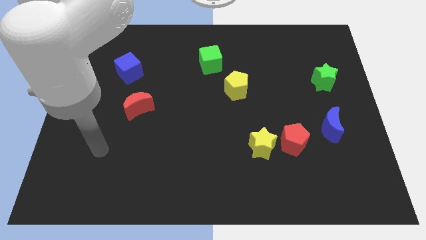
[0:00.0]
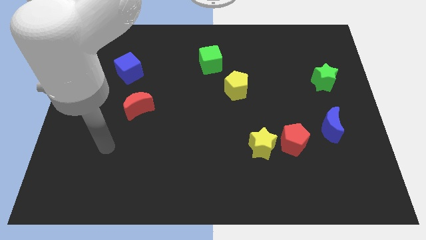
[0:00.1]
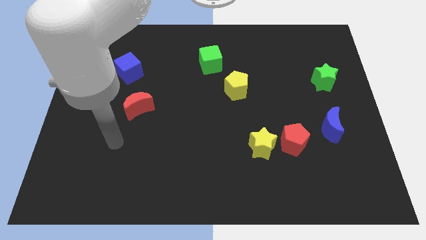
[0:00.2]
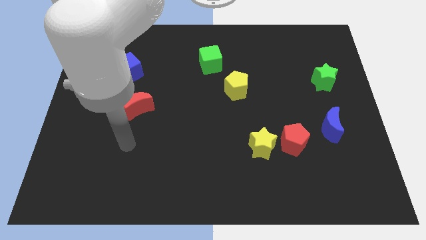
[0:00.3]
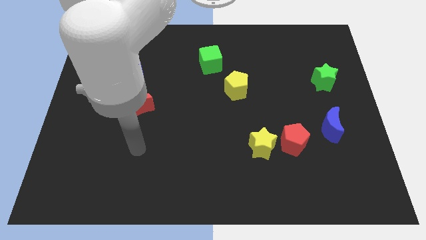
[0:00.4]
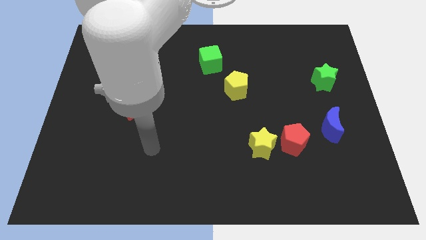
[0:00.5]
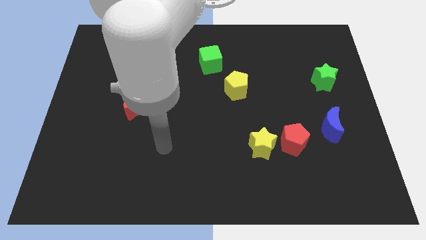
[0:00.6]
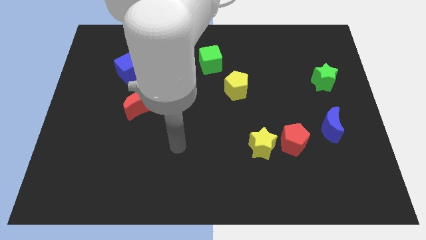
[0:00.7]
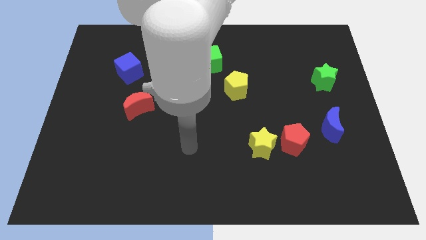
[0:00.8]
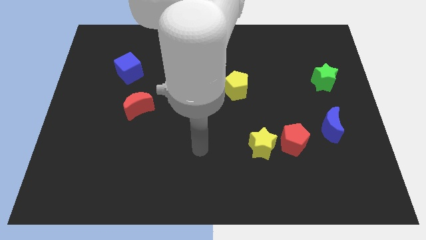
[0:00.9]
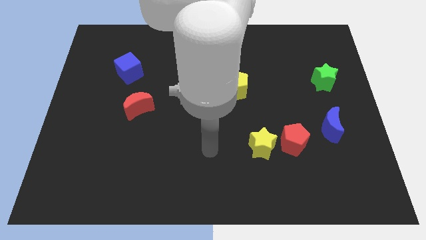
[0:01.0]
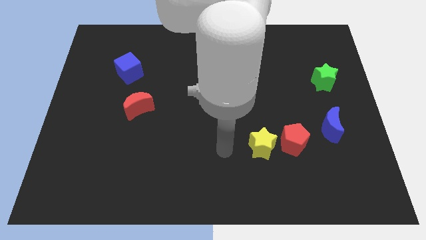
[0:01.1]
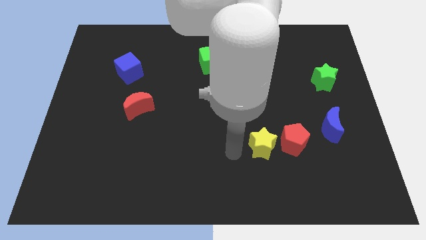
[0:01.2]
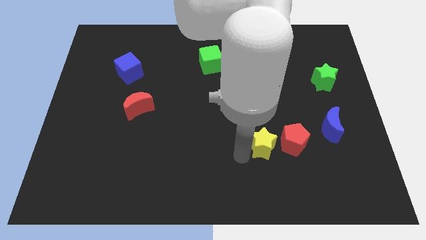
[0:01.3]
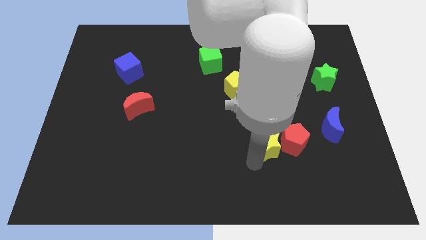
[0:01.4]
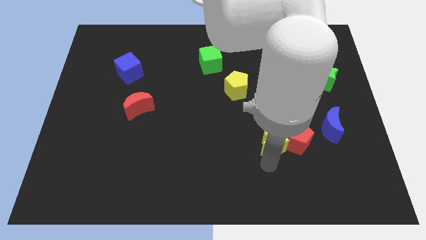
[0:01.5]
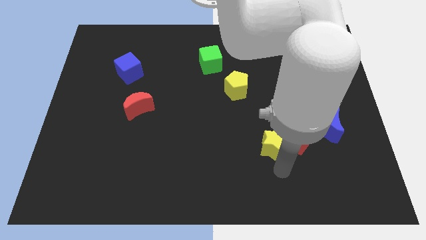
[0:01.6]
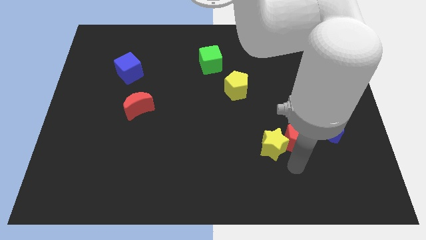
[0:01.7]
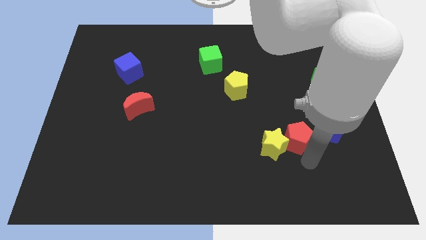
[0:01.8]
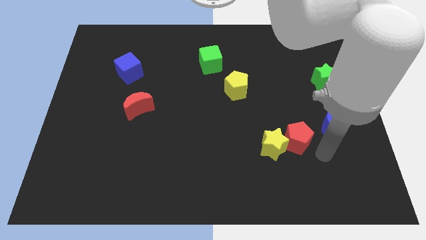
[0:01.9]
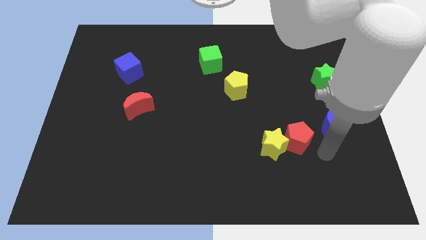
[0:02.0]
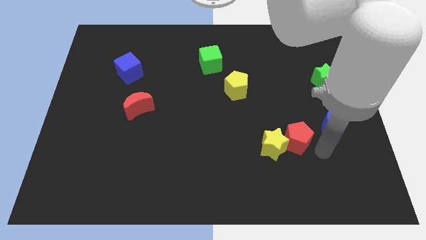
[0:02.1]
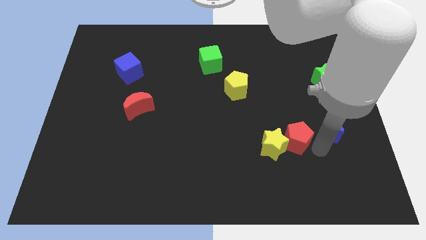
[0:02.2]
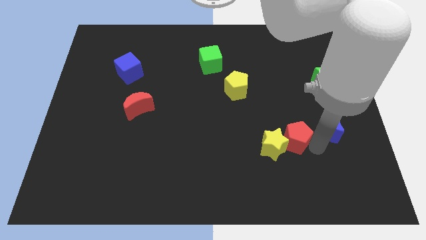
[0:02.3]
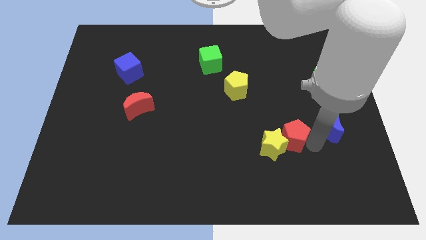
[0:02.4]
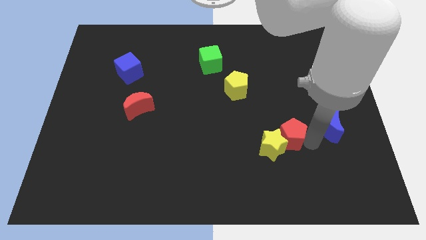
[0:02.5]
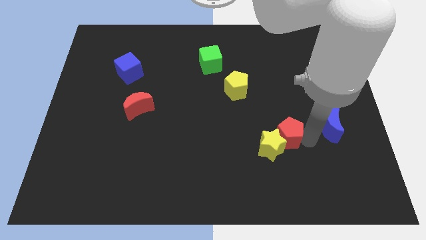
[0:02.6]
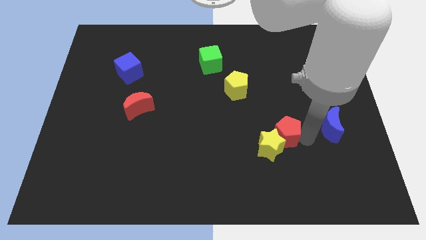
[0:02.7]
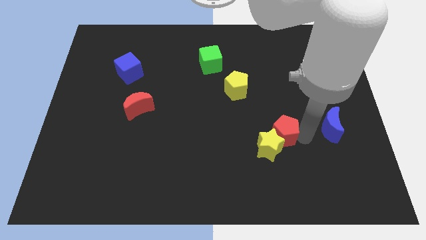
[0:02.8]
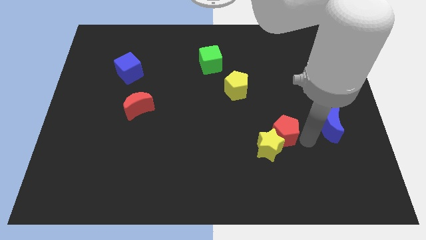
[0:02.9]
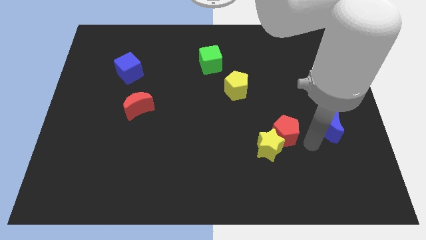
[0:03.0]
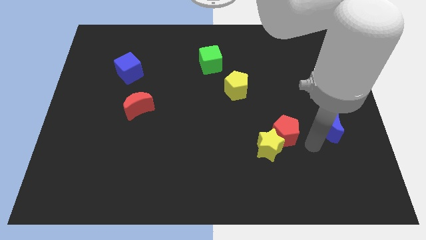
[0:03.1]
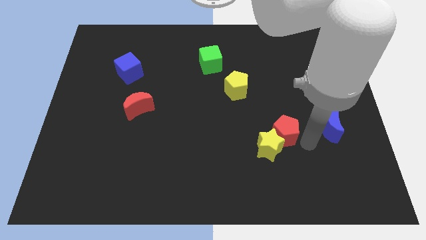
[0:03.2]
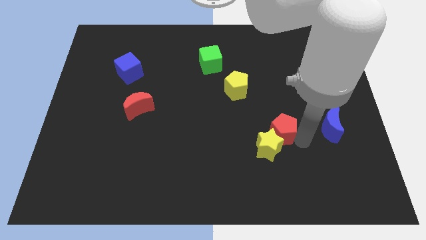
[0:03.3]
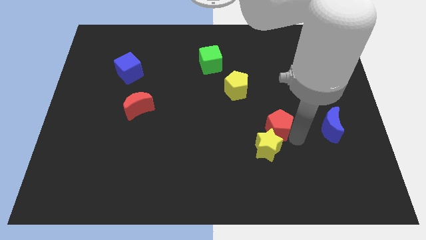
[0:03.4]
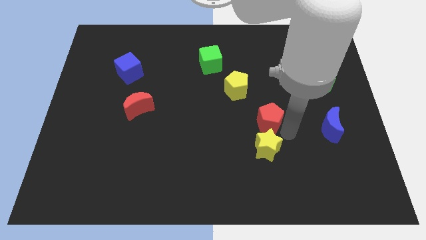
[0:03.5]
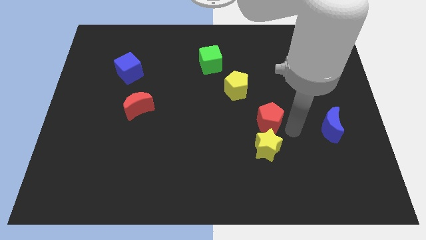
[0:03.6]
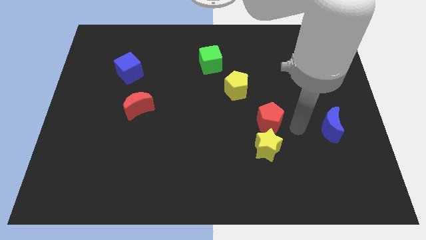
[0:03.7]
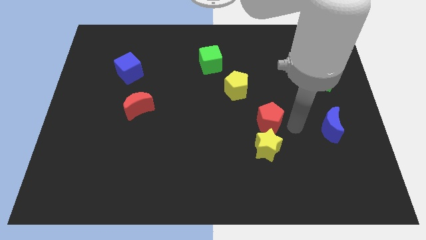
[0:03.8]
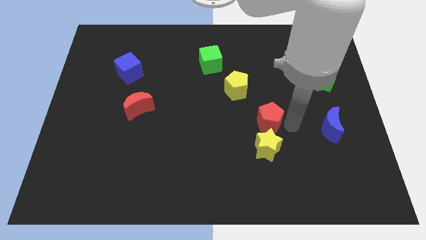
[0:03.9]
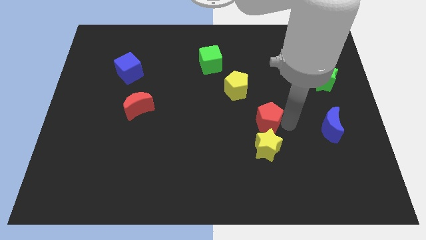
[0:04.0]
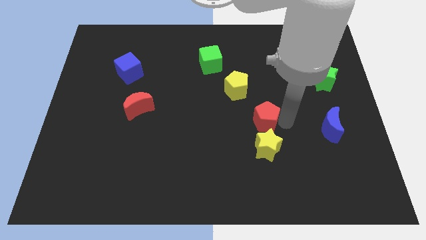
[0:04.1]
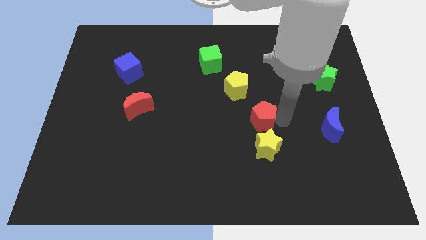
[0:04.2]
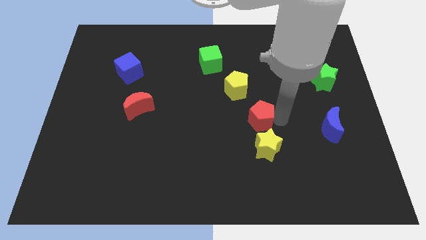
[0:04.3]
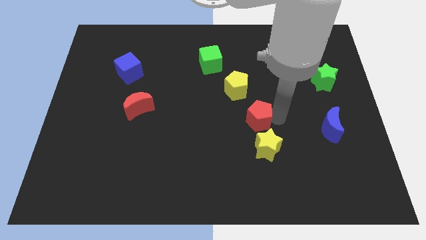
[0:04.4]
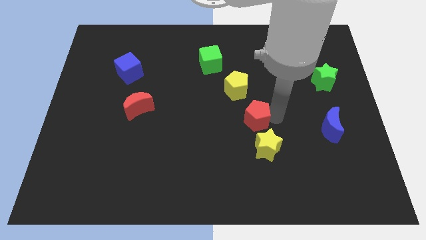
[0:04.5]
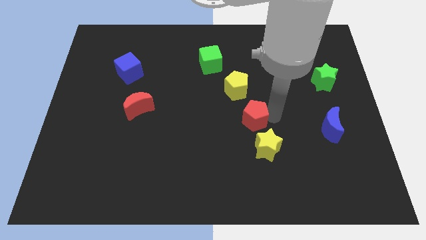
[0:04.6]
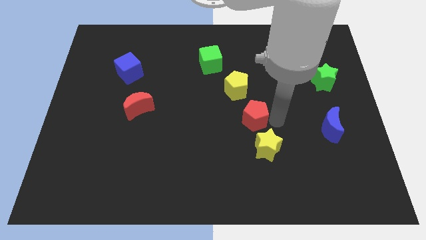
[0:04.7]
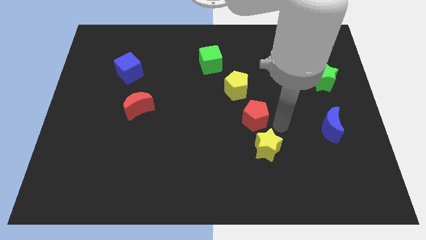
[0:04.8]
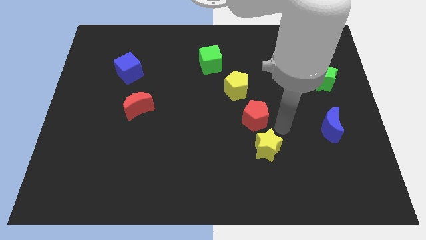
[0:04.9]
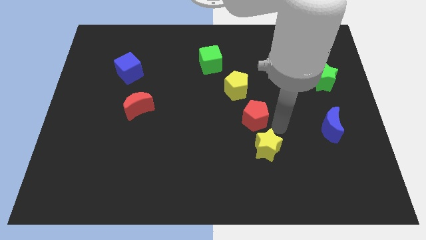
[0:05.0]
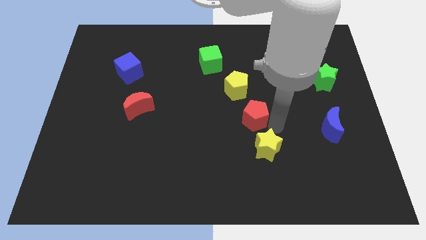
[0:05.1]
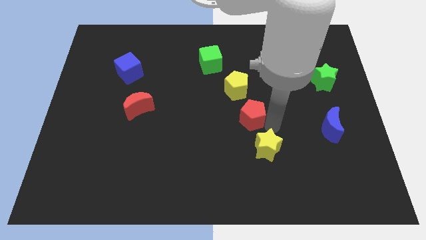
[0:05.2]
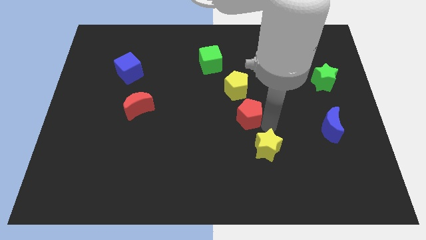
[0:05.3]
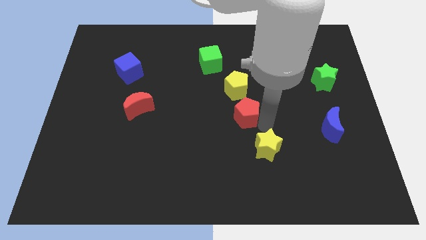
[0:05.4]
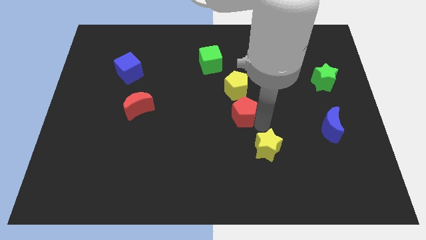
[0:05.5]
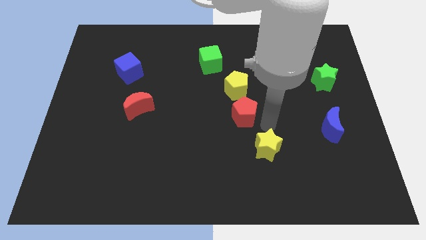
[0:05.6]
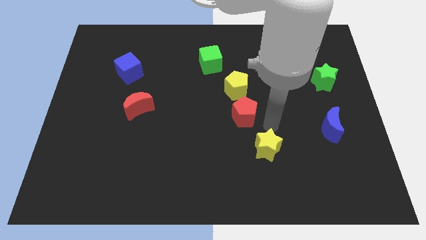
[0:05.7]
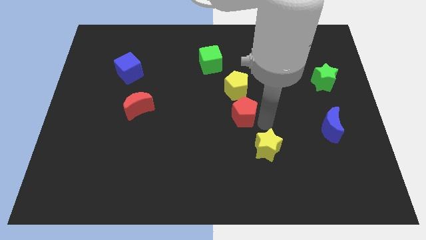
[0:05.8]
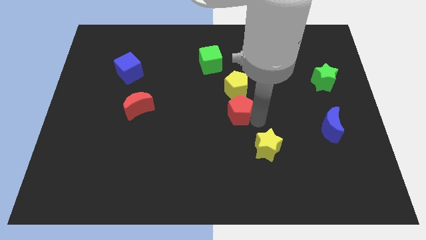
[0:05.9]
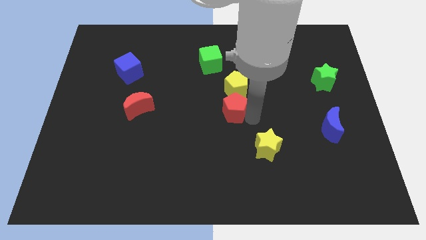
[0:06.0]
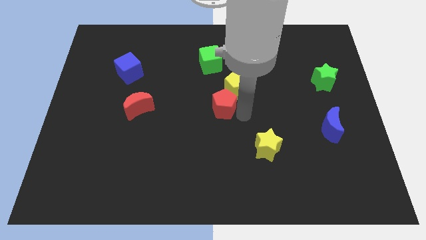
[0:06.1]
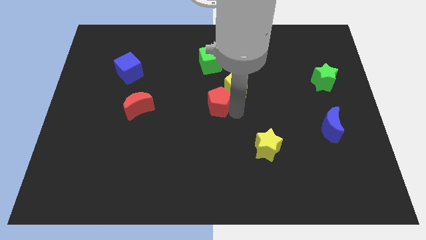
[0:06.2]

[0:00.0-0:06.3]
put the red pentagon to the left of the yellow pentagon
